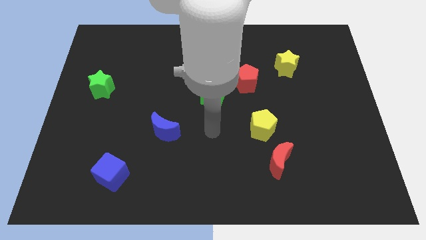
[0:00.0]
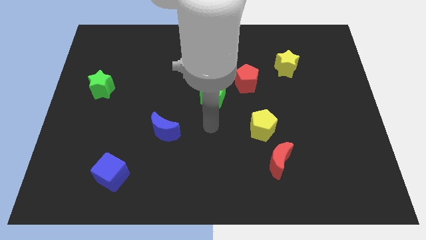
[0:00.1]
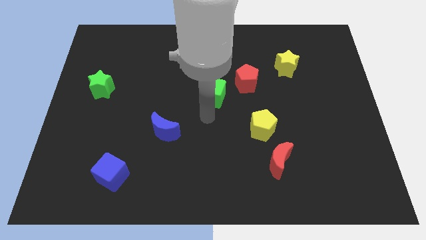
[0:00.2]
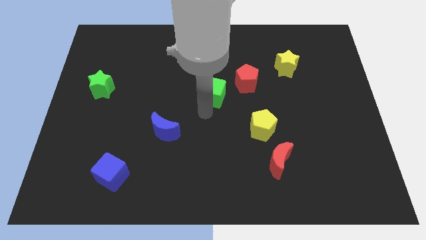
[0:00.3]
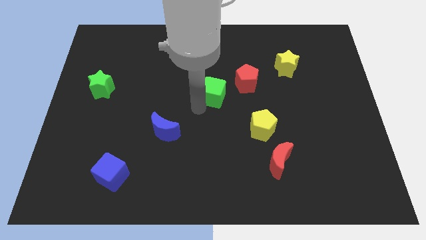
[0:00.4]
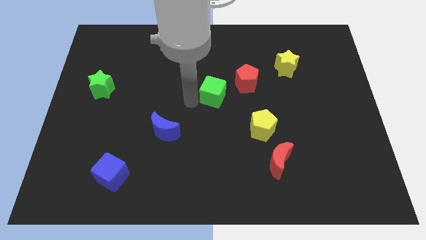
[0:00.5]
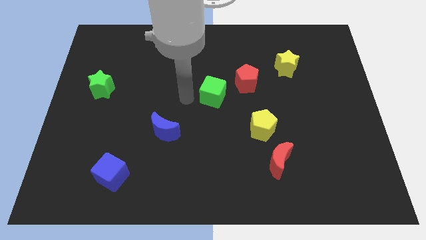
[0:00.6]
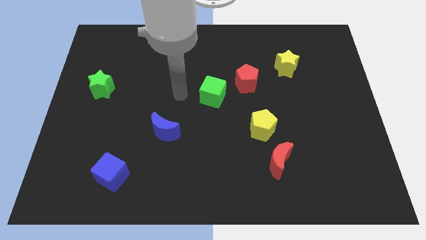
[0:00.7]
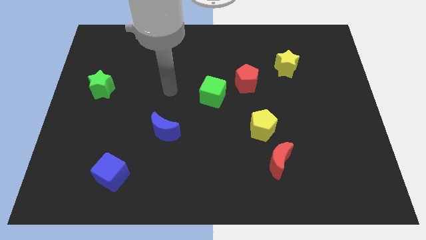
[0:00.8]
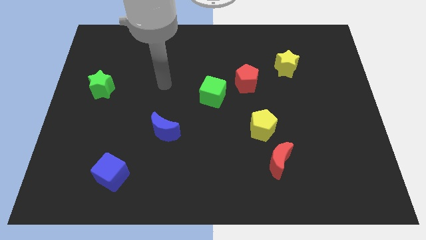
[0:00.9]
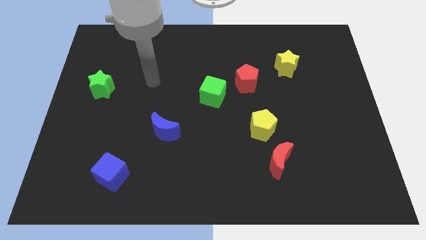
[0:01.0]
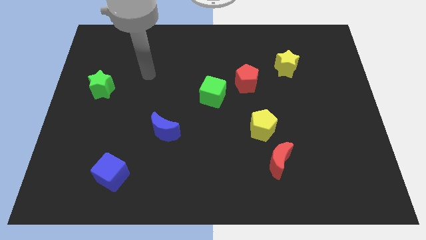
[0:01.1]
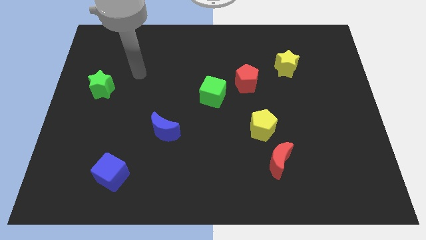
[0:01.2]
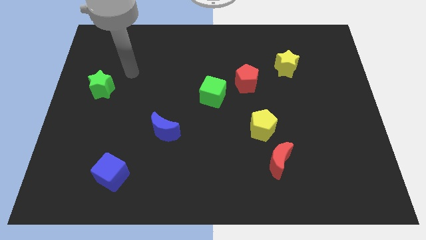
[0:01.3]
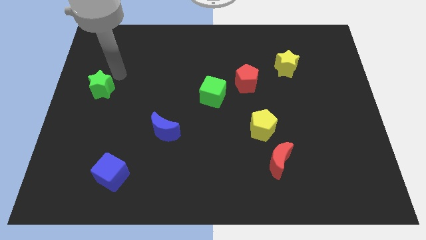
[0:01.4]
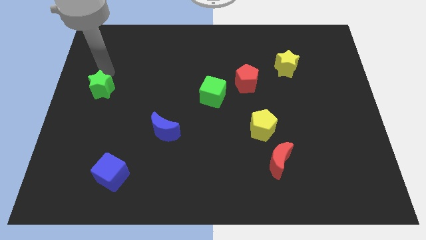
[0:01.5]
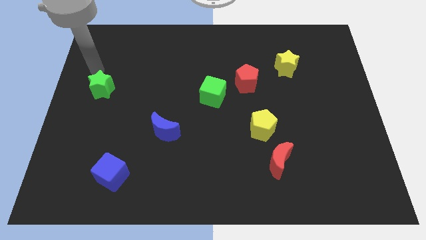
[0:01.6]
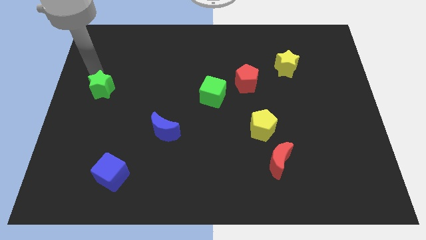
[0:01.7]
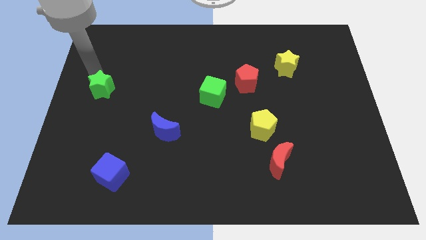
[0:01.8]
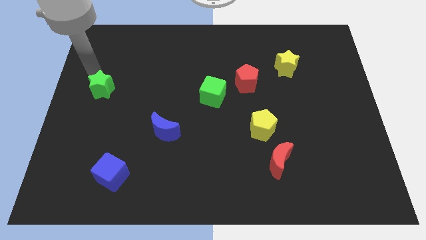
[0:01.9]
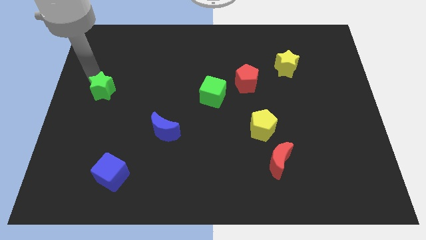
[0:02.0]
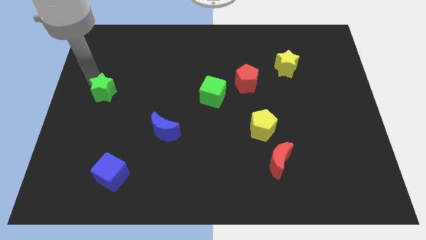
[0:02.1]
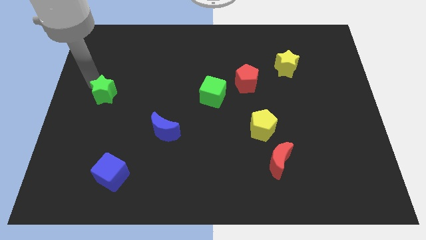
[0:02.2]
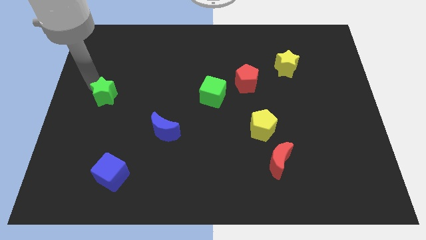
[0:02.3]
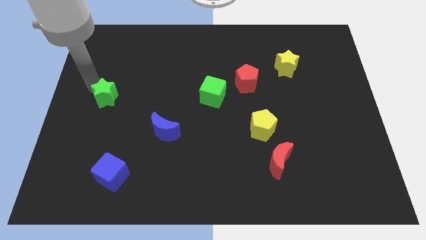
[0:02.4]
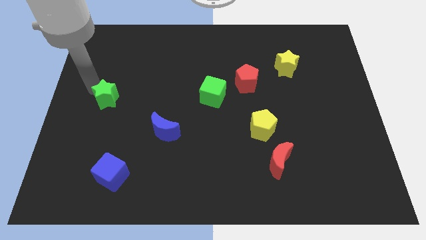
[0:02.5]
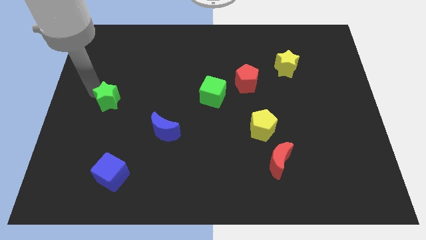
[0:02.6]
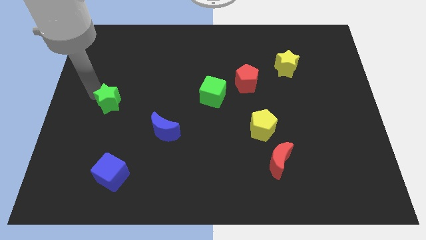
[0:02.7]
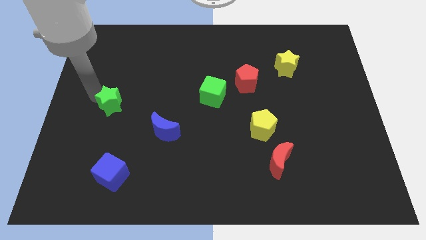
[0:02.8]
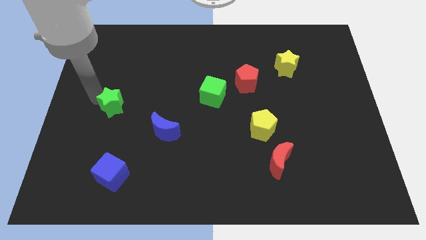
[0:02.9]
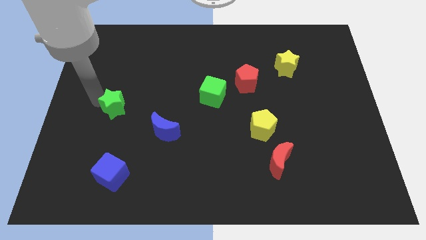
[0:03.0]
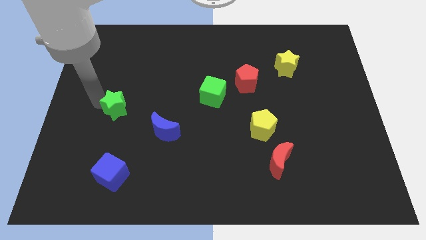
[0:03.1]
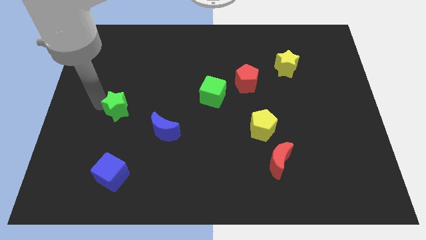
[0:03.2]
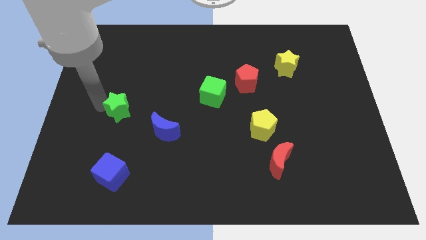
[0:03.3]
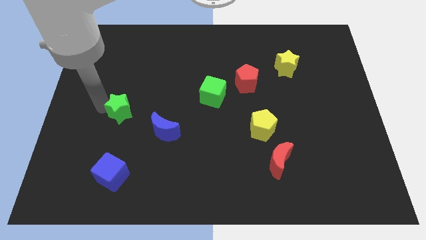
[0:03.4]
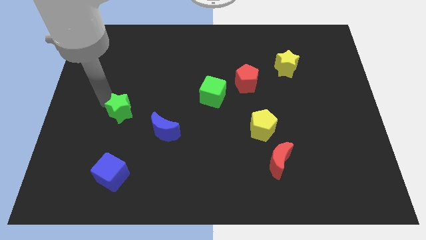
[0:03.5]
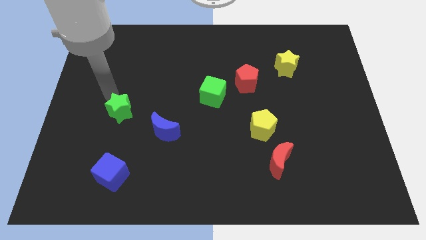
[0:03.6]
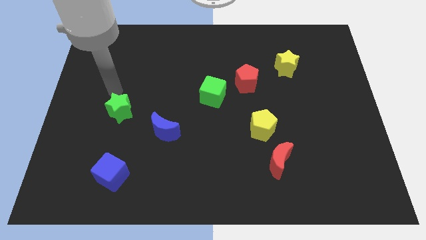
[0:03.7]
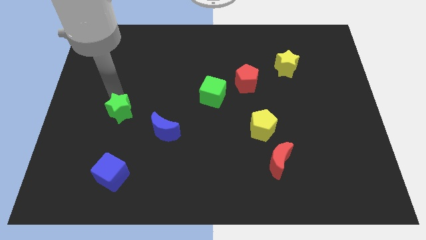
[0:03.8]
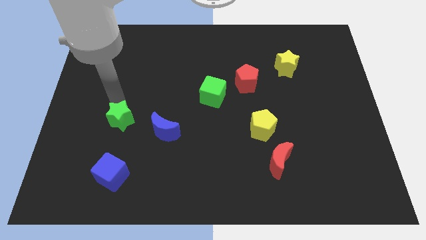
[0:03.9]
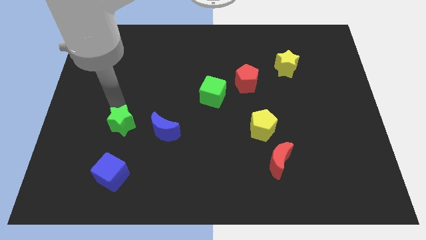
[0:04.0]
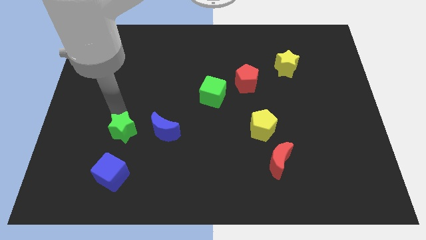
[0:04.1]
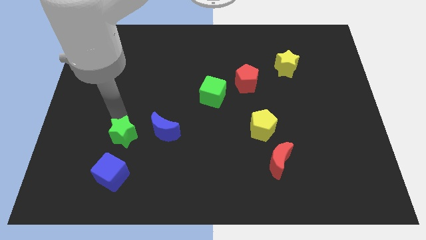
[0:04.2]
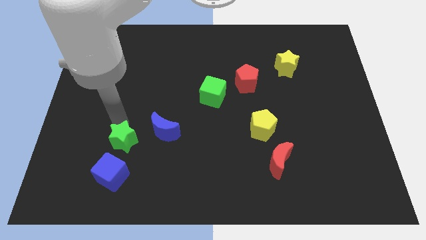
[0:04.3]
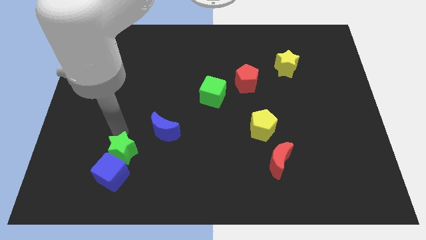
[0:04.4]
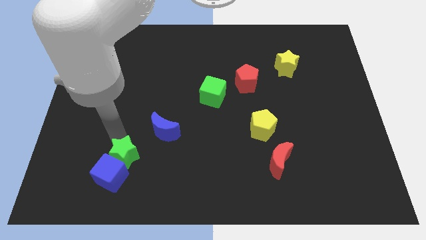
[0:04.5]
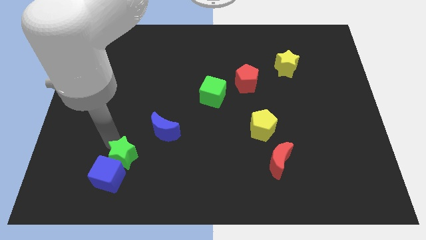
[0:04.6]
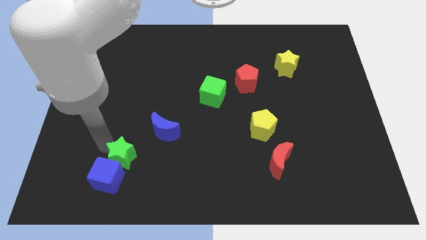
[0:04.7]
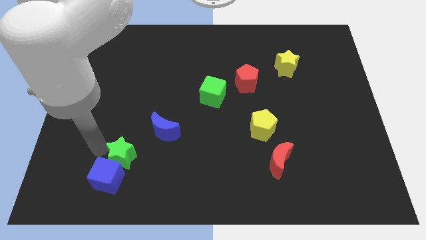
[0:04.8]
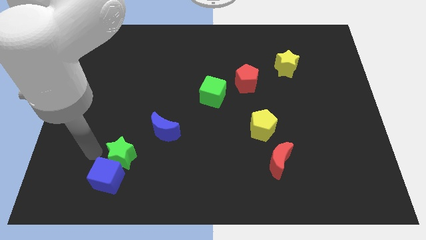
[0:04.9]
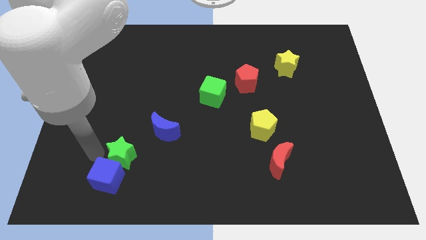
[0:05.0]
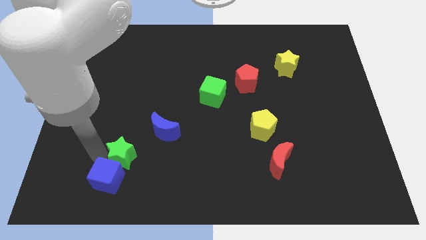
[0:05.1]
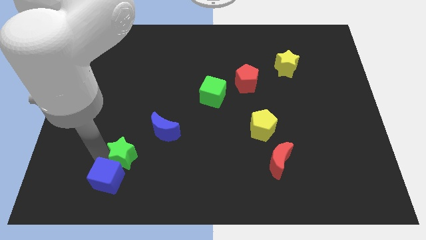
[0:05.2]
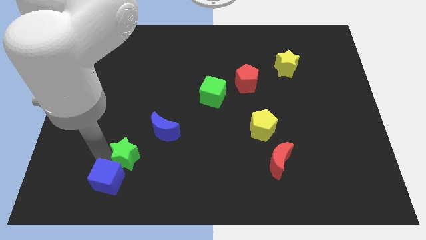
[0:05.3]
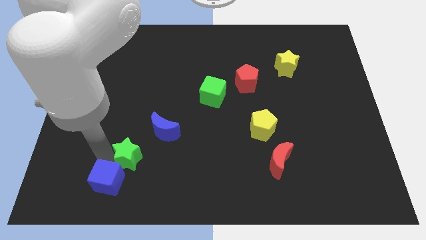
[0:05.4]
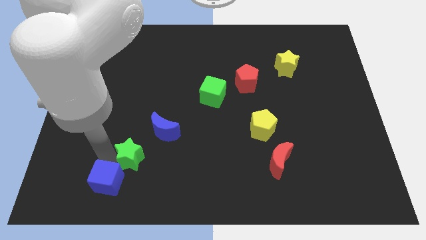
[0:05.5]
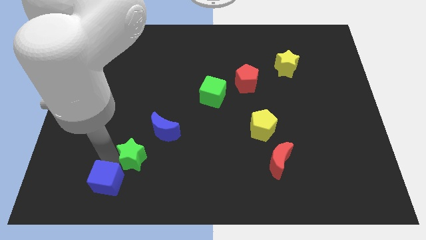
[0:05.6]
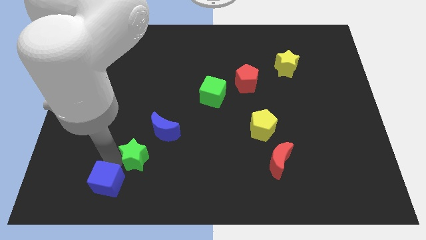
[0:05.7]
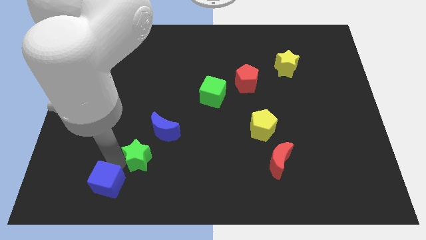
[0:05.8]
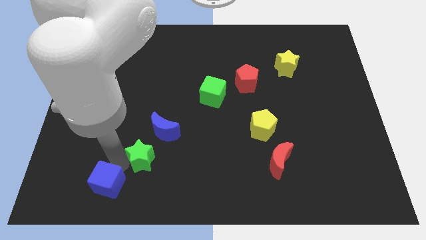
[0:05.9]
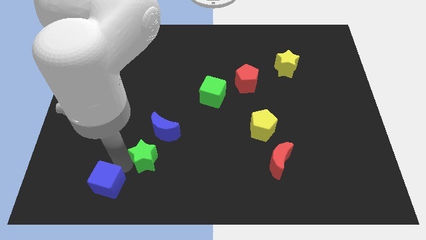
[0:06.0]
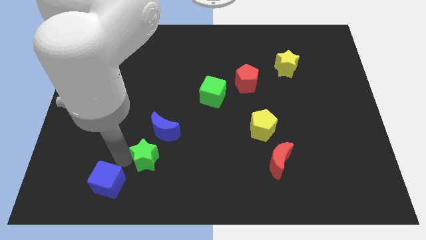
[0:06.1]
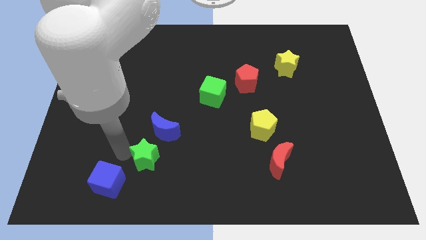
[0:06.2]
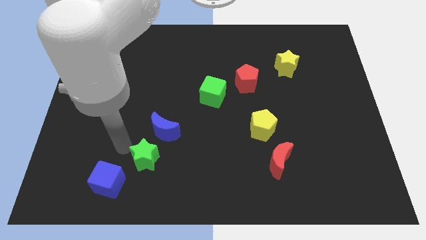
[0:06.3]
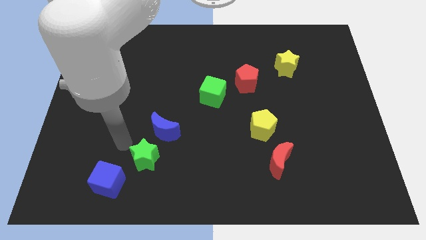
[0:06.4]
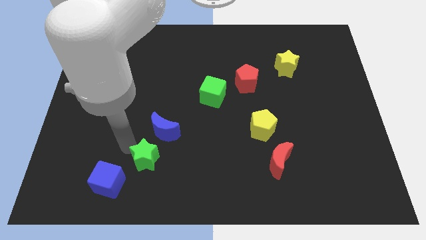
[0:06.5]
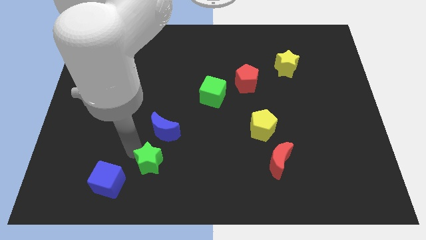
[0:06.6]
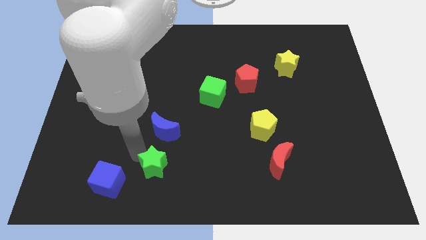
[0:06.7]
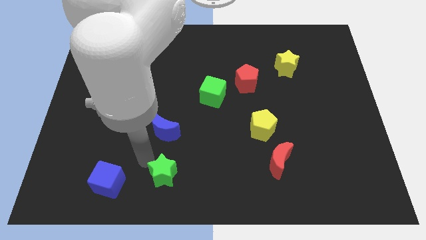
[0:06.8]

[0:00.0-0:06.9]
put the green star to the bottom
